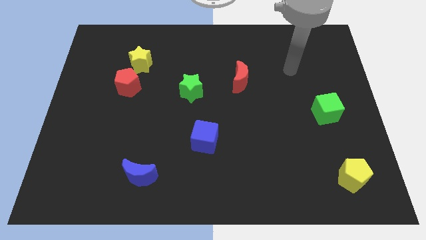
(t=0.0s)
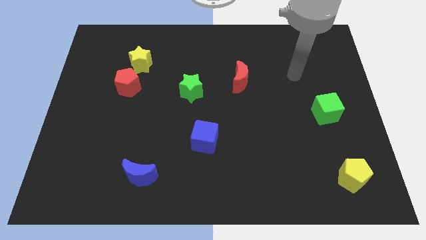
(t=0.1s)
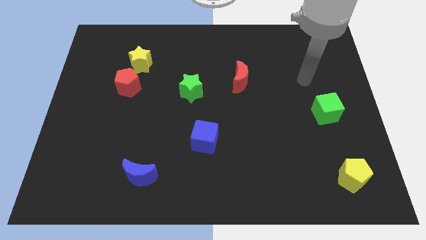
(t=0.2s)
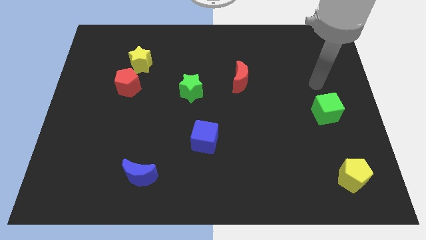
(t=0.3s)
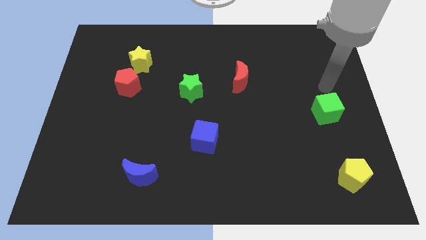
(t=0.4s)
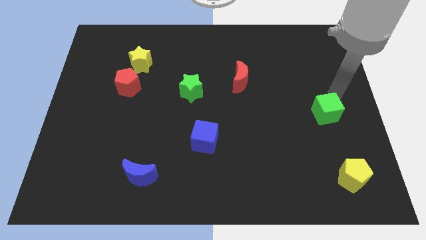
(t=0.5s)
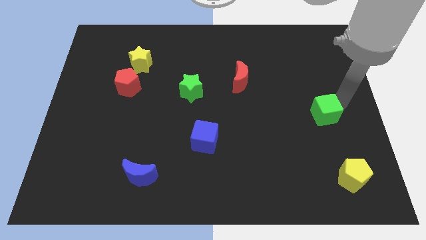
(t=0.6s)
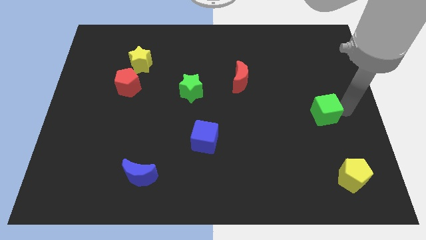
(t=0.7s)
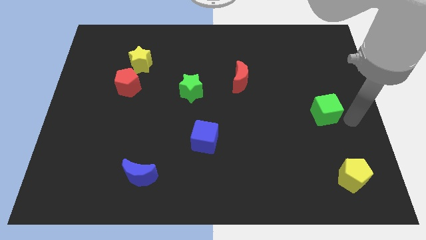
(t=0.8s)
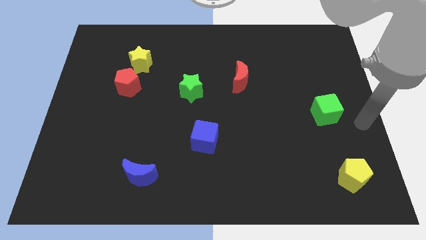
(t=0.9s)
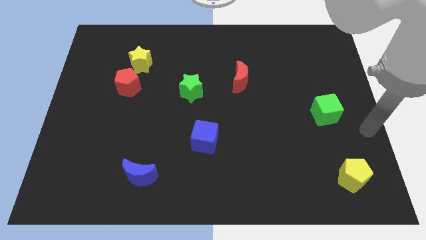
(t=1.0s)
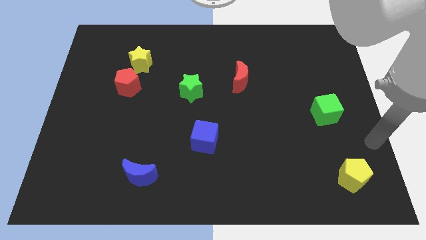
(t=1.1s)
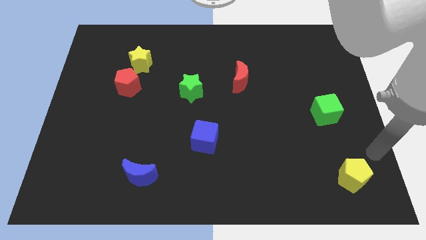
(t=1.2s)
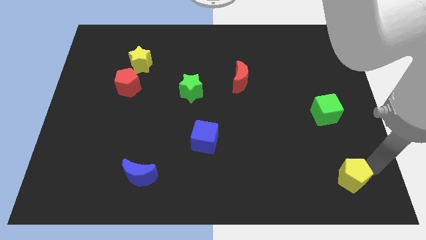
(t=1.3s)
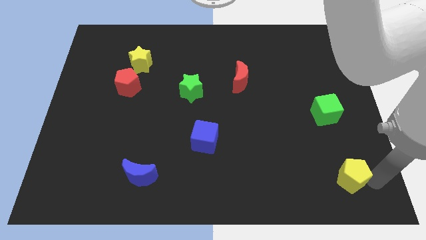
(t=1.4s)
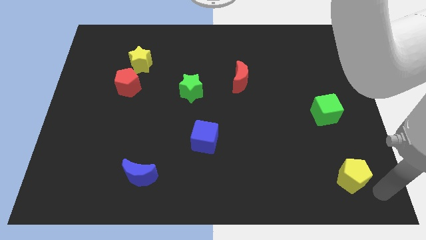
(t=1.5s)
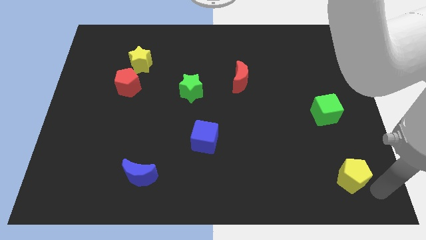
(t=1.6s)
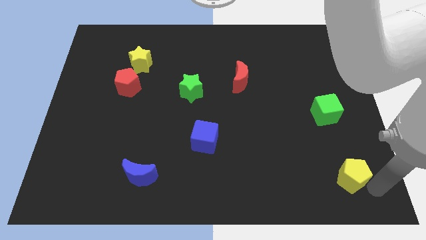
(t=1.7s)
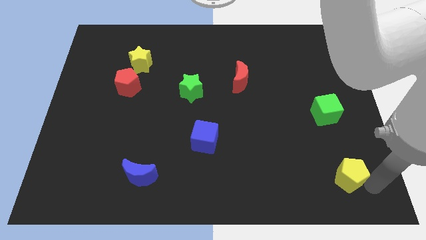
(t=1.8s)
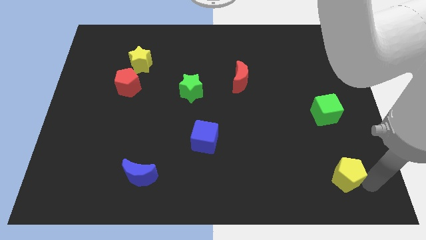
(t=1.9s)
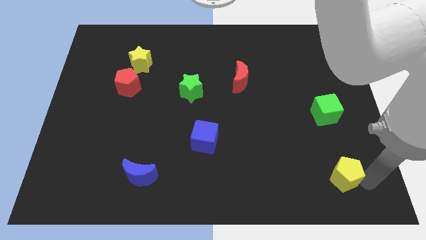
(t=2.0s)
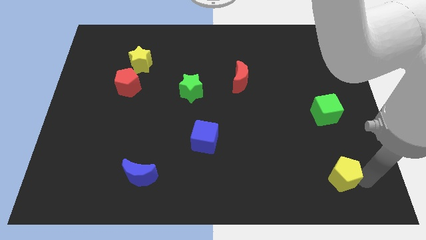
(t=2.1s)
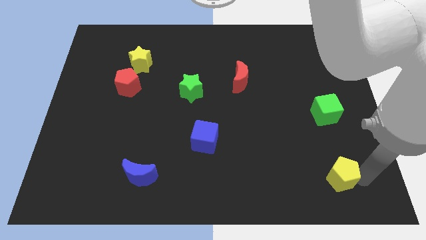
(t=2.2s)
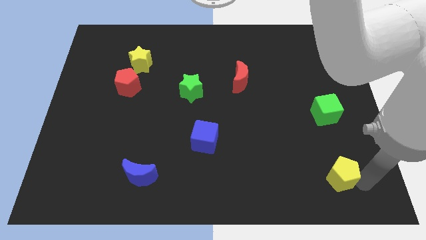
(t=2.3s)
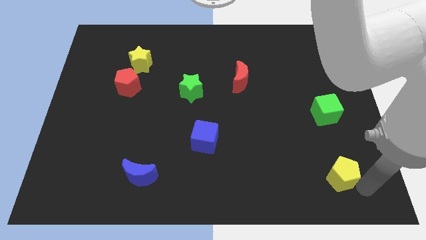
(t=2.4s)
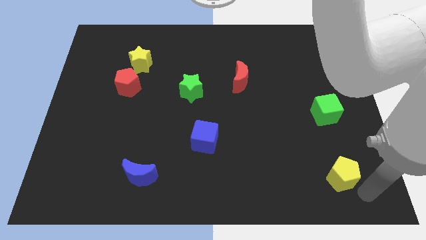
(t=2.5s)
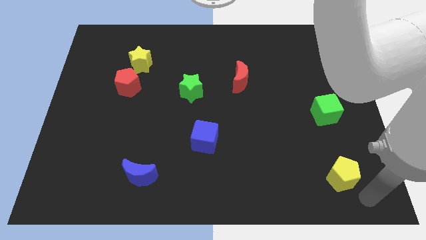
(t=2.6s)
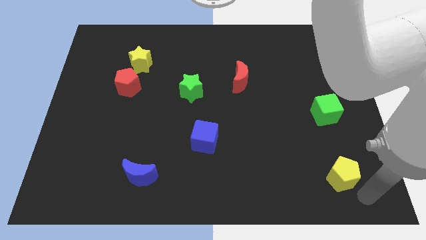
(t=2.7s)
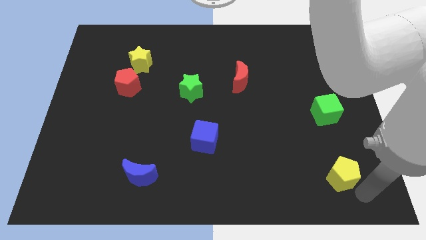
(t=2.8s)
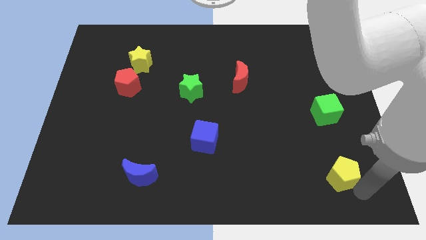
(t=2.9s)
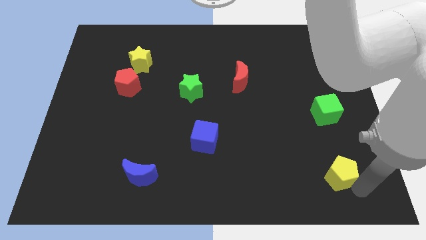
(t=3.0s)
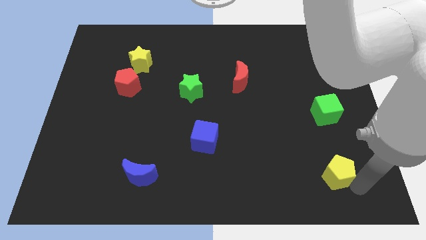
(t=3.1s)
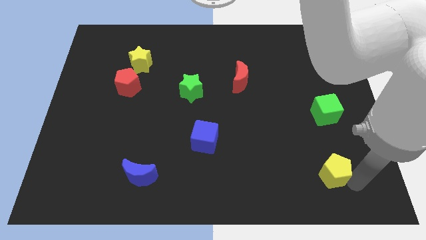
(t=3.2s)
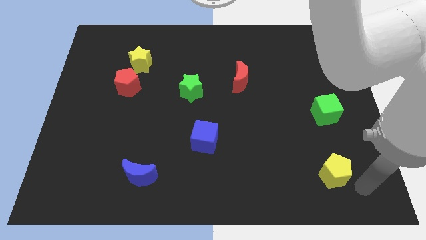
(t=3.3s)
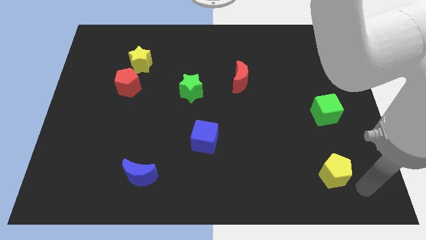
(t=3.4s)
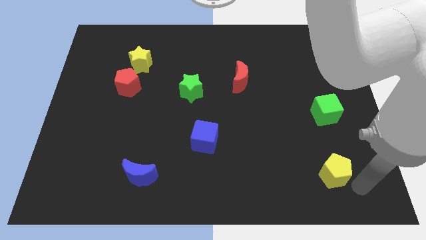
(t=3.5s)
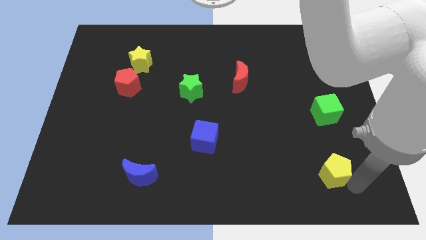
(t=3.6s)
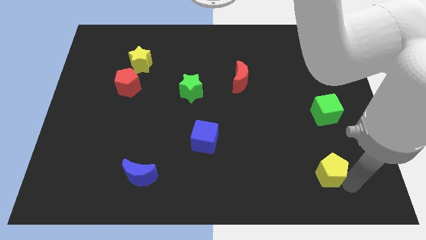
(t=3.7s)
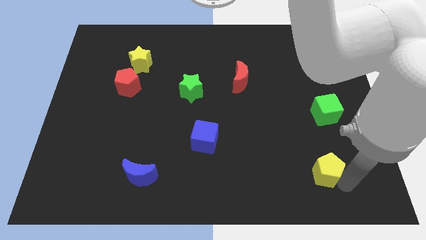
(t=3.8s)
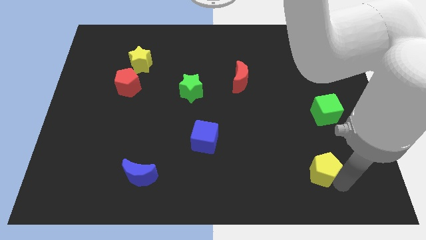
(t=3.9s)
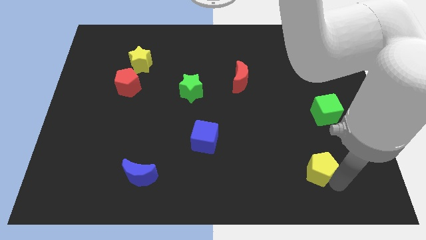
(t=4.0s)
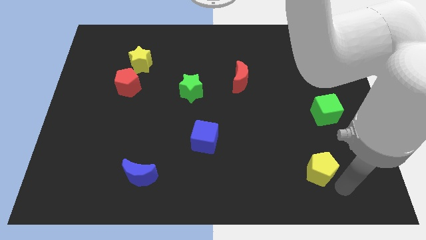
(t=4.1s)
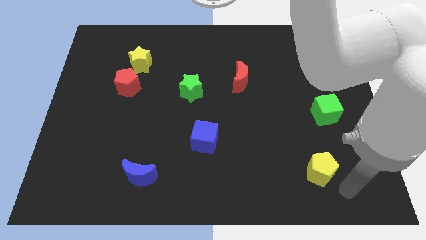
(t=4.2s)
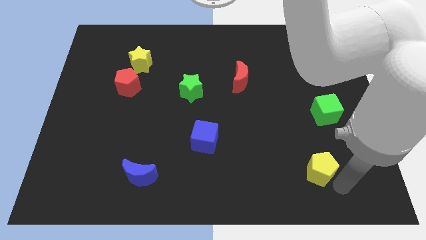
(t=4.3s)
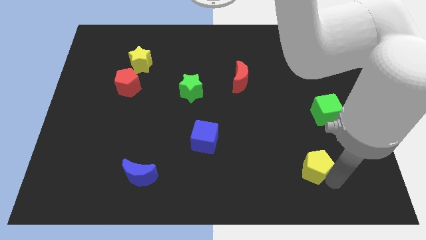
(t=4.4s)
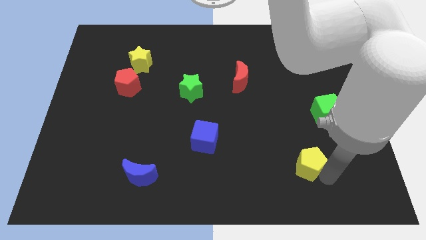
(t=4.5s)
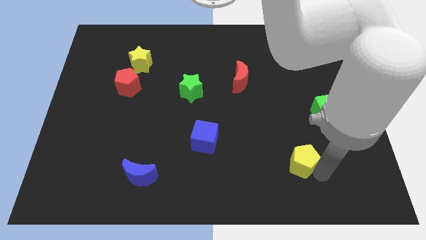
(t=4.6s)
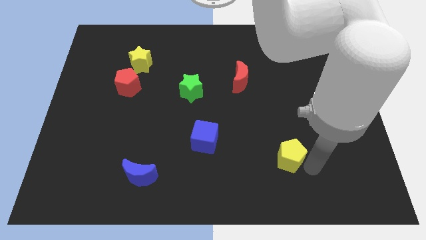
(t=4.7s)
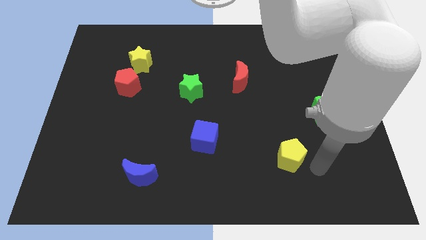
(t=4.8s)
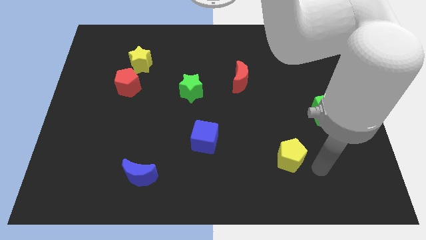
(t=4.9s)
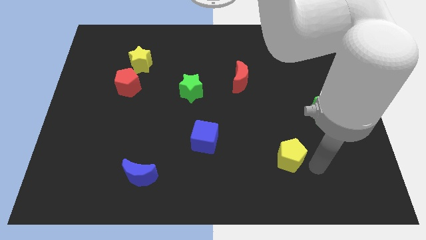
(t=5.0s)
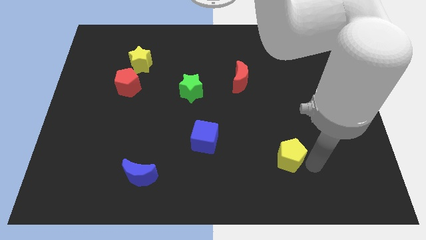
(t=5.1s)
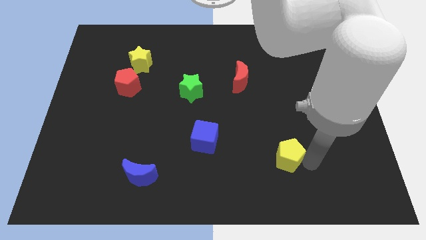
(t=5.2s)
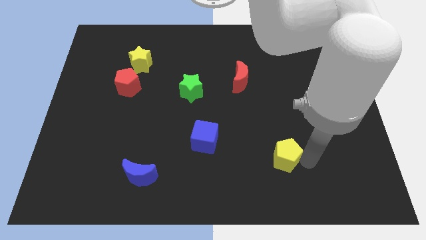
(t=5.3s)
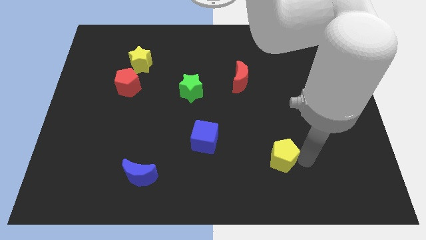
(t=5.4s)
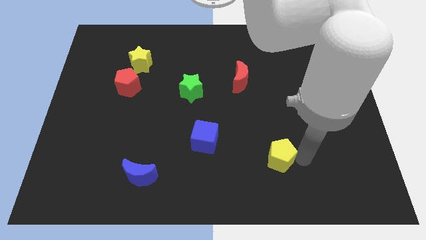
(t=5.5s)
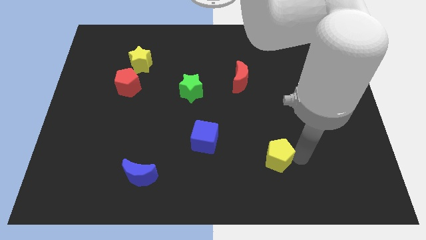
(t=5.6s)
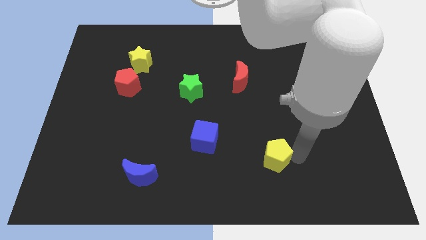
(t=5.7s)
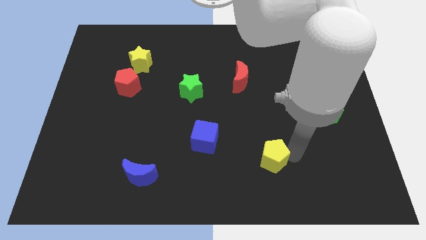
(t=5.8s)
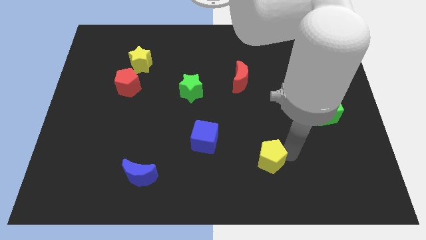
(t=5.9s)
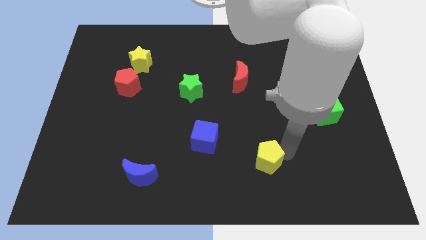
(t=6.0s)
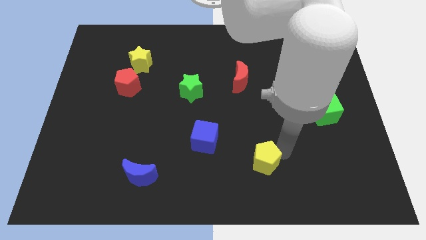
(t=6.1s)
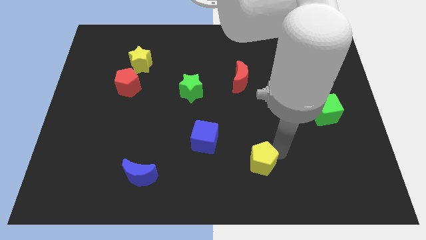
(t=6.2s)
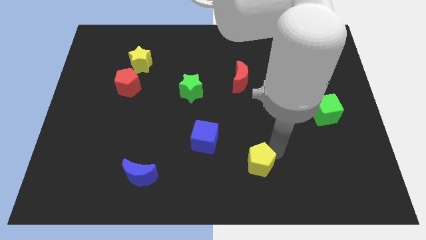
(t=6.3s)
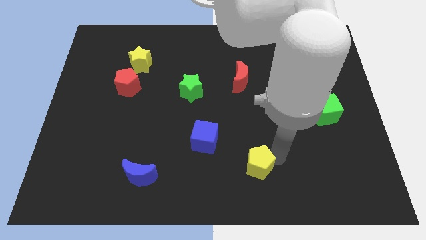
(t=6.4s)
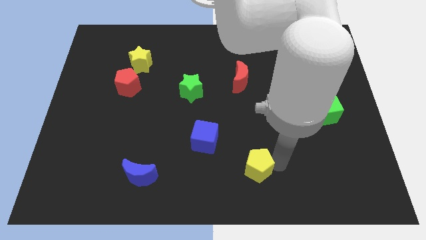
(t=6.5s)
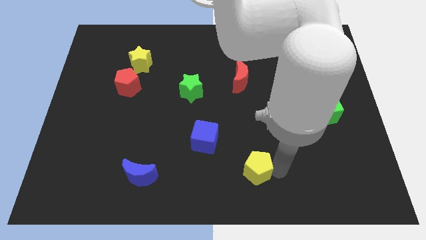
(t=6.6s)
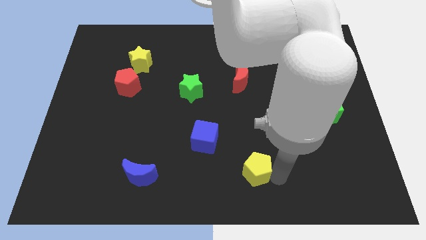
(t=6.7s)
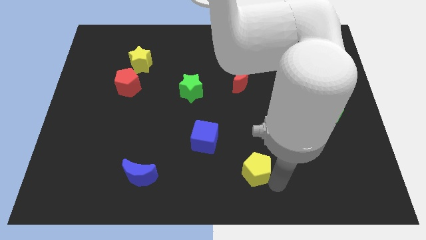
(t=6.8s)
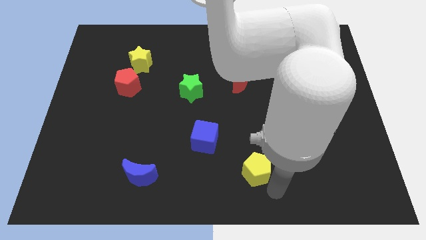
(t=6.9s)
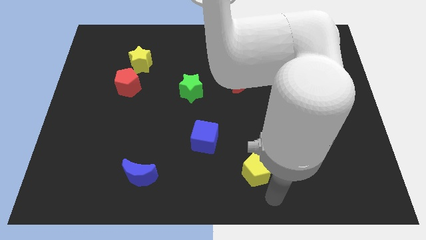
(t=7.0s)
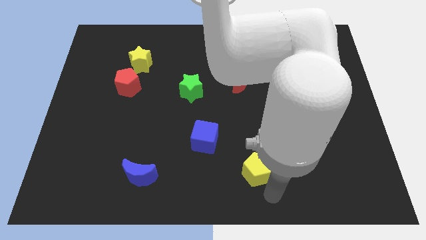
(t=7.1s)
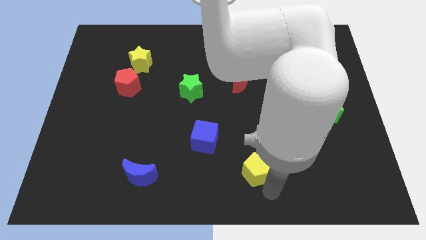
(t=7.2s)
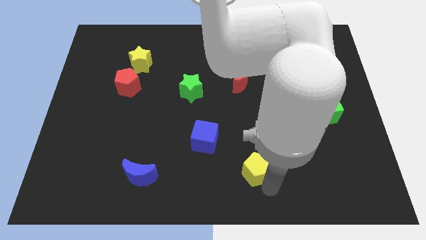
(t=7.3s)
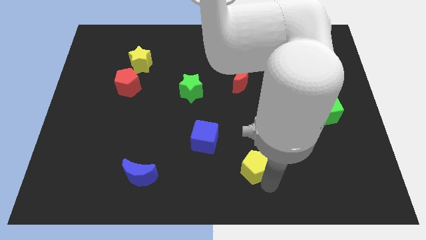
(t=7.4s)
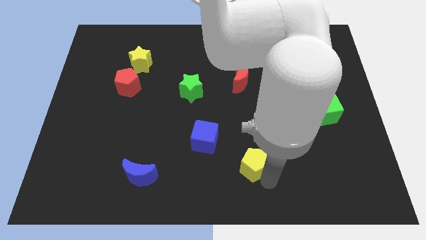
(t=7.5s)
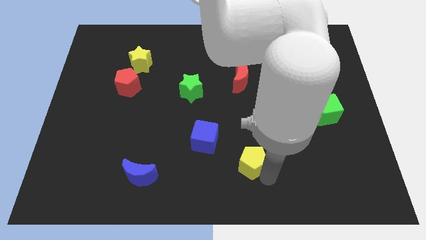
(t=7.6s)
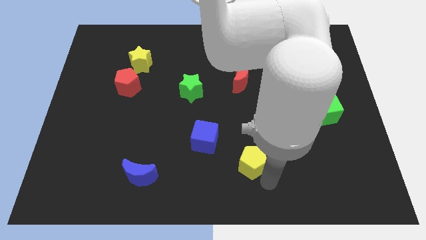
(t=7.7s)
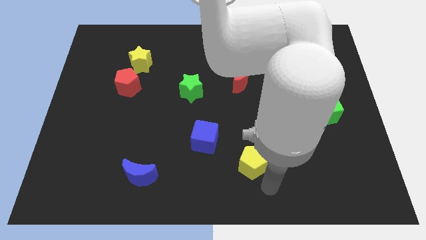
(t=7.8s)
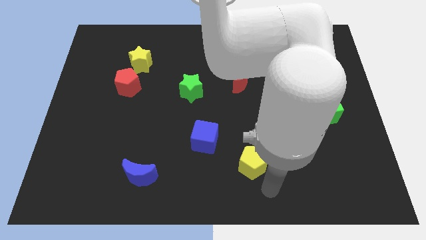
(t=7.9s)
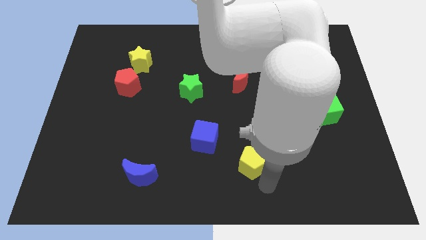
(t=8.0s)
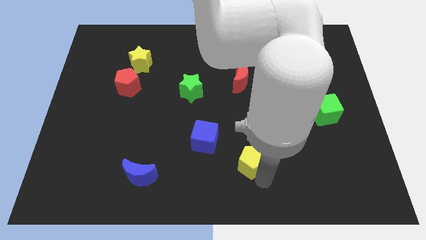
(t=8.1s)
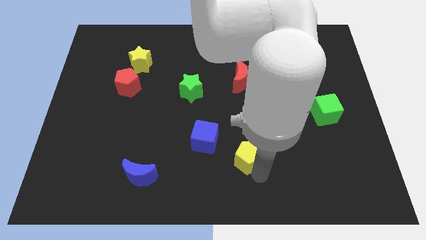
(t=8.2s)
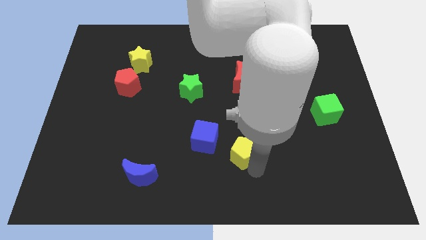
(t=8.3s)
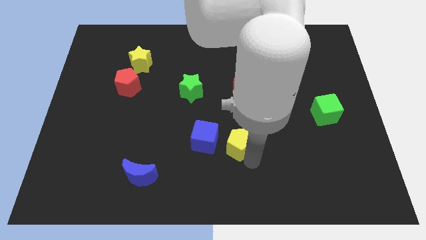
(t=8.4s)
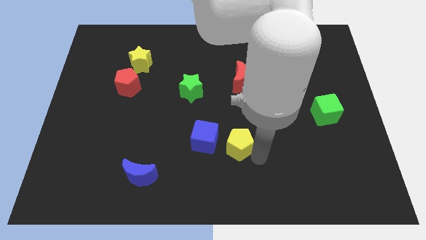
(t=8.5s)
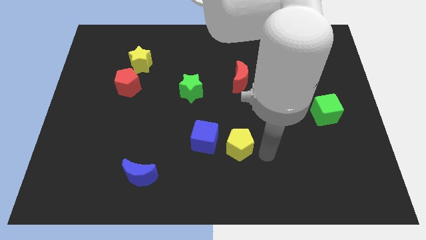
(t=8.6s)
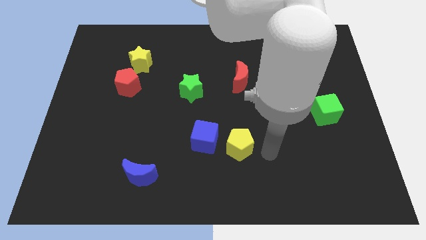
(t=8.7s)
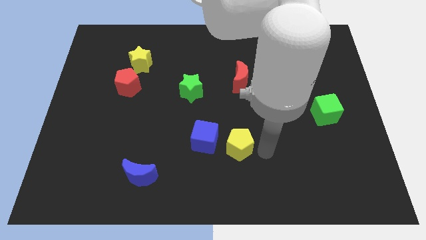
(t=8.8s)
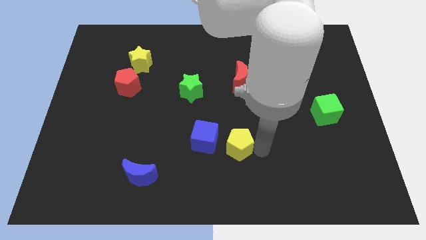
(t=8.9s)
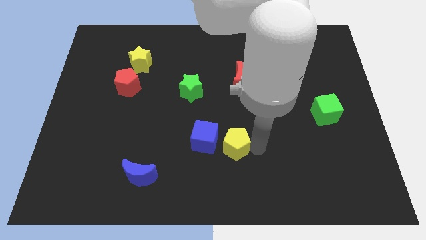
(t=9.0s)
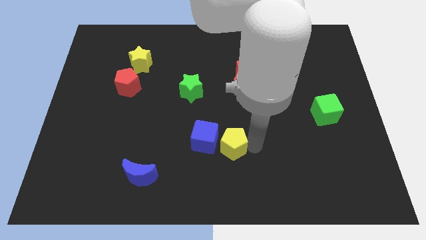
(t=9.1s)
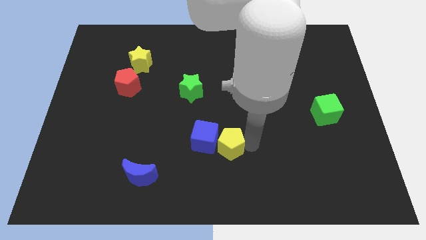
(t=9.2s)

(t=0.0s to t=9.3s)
slide the yellow pentagon towards the blue cube
